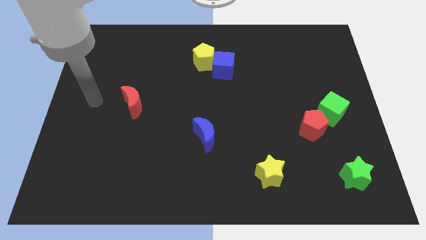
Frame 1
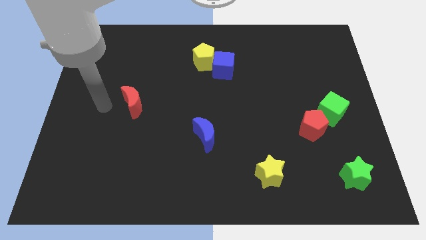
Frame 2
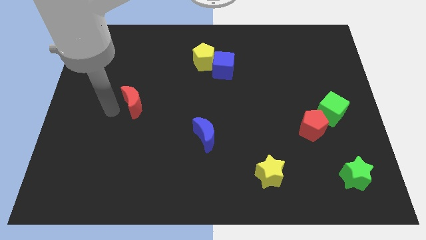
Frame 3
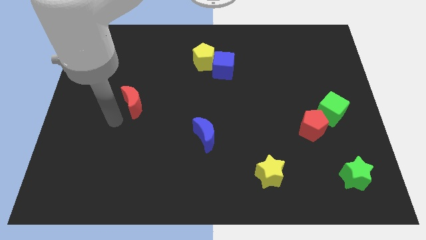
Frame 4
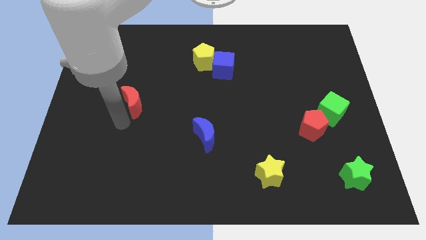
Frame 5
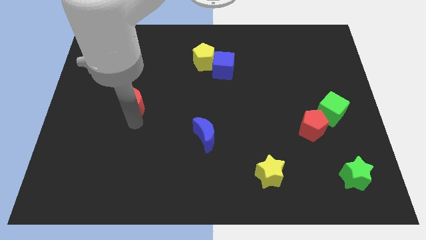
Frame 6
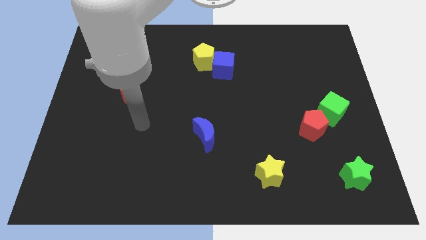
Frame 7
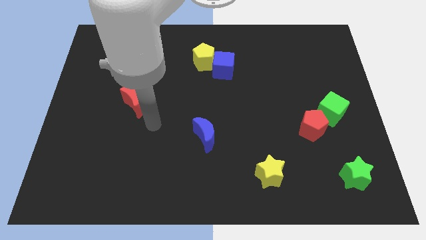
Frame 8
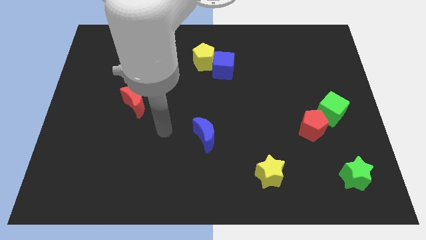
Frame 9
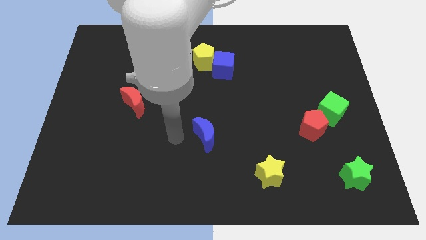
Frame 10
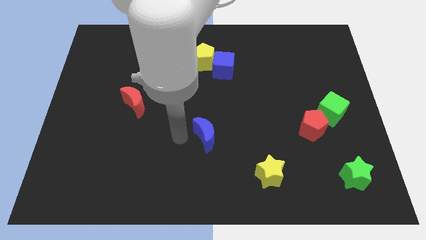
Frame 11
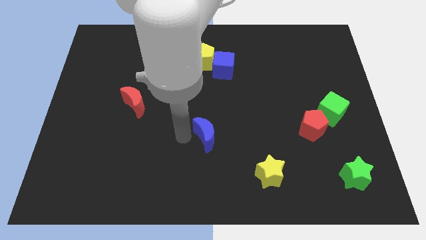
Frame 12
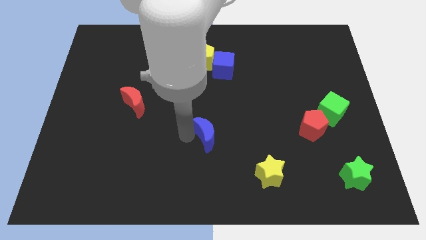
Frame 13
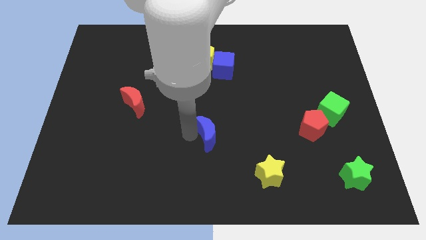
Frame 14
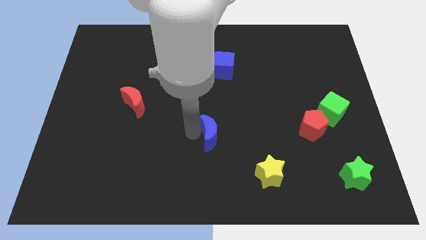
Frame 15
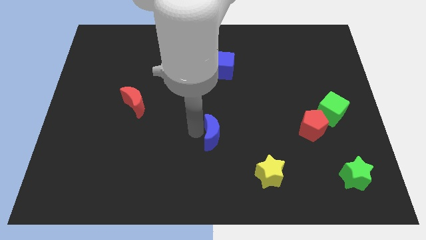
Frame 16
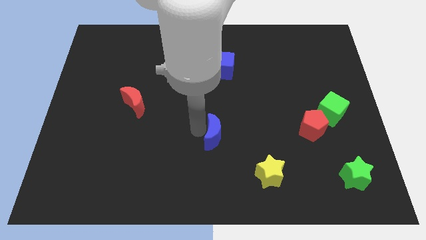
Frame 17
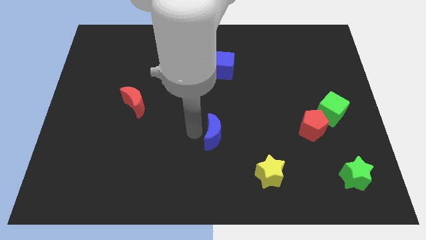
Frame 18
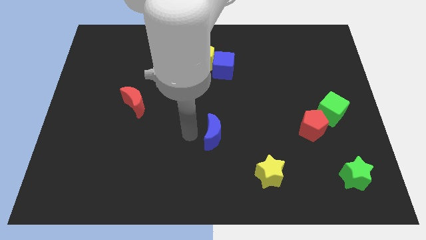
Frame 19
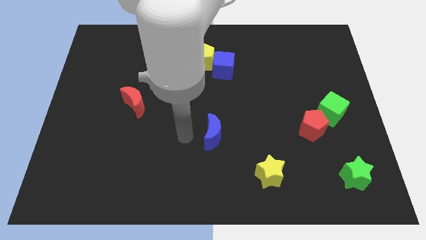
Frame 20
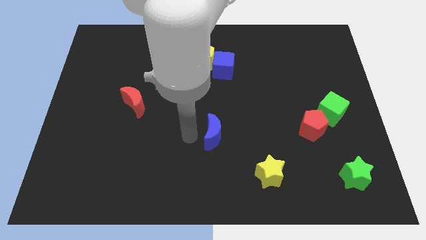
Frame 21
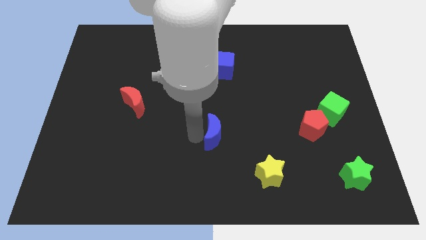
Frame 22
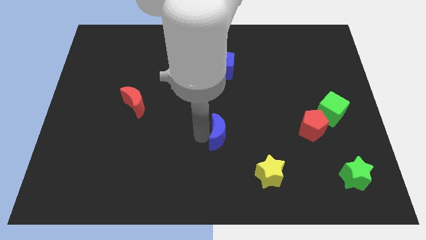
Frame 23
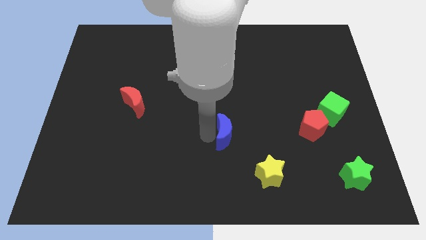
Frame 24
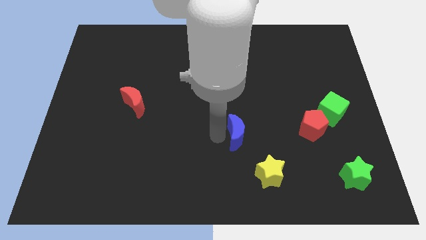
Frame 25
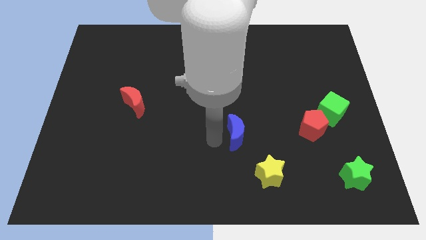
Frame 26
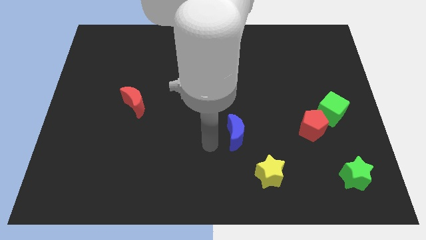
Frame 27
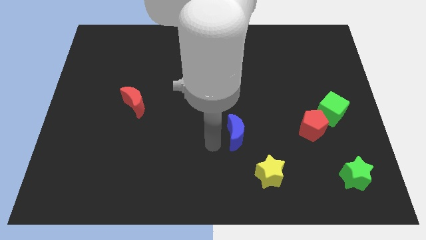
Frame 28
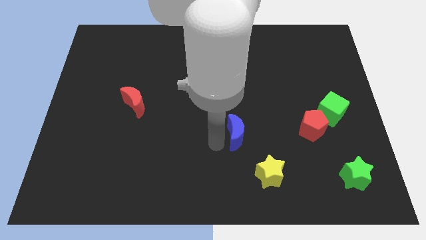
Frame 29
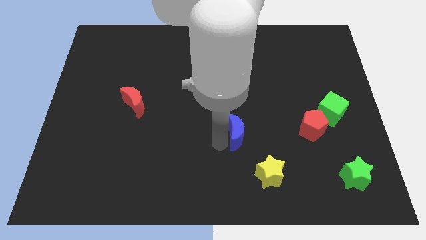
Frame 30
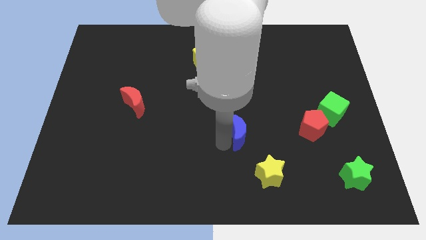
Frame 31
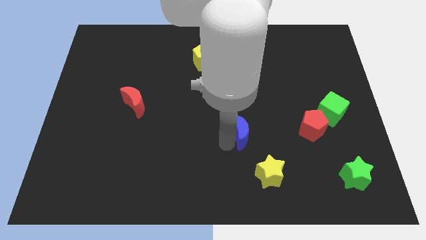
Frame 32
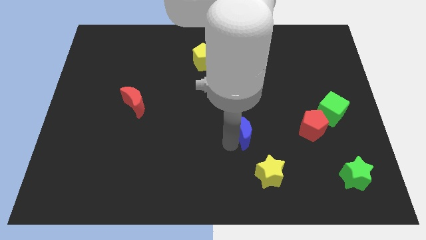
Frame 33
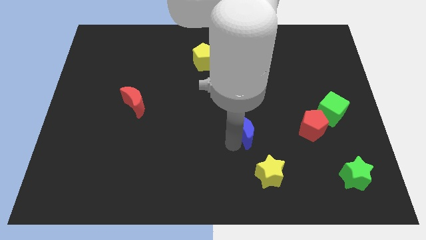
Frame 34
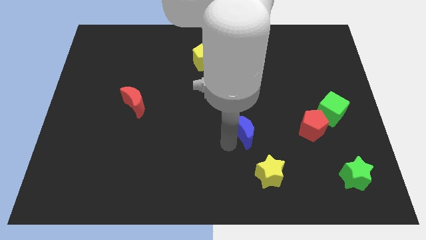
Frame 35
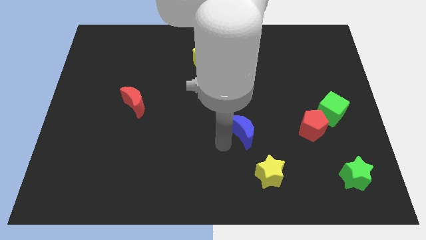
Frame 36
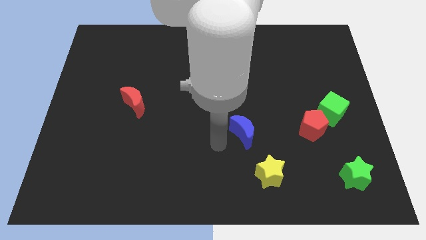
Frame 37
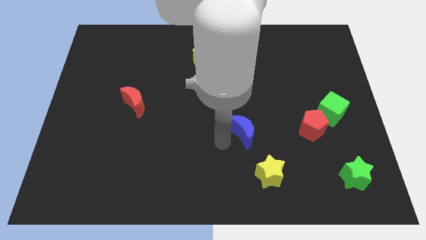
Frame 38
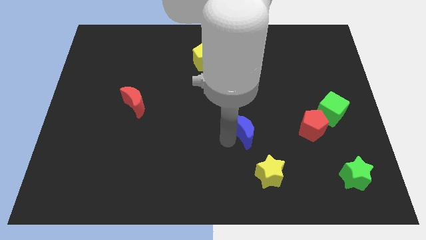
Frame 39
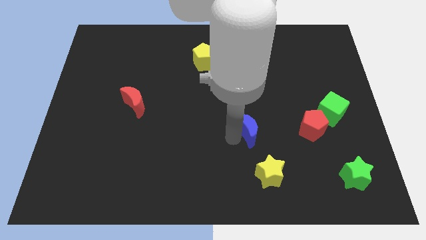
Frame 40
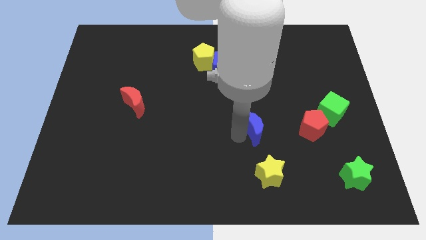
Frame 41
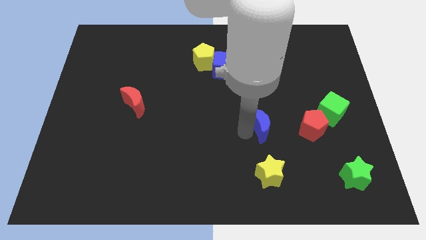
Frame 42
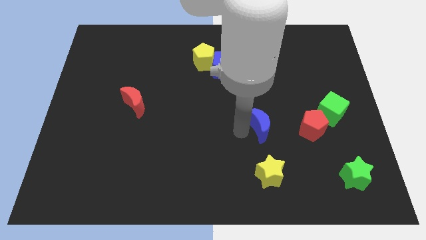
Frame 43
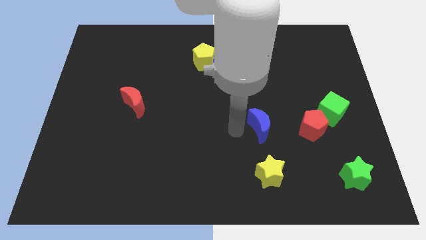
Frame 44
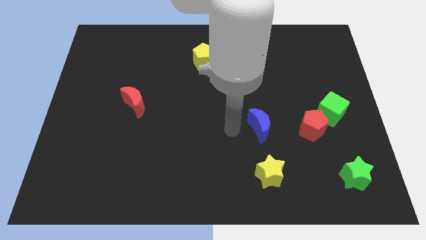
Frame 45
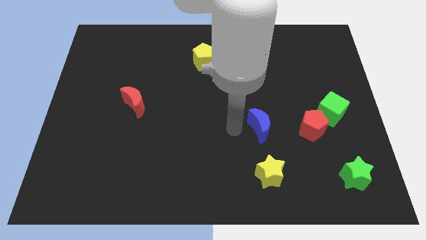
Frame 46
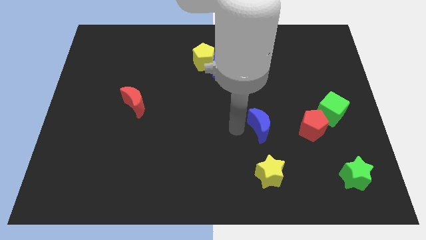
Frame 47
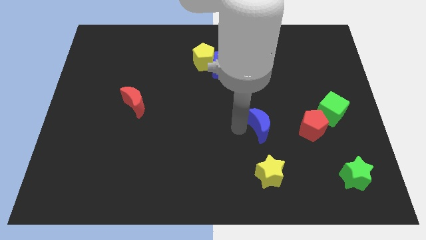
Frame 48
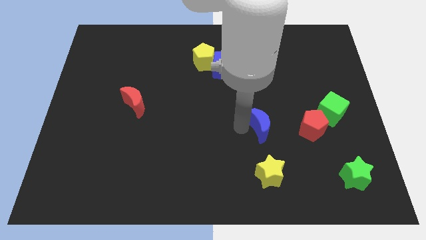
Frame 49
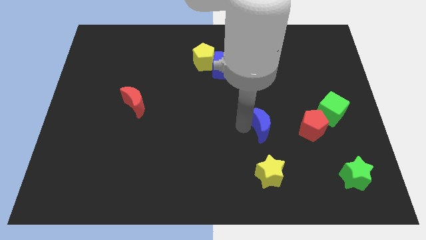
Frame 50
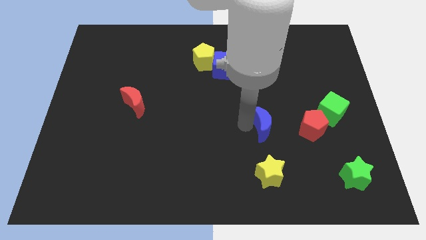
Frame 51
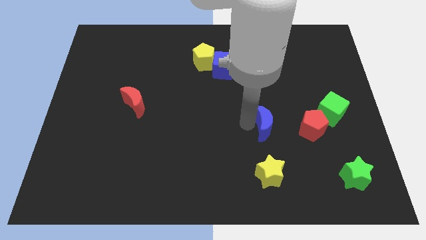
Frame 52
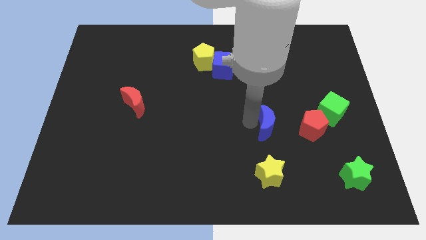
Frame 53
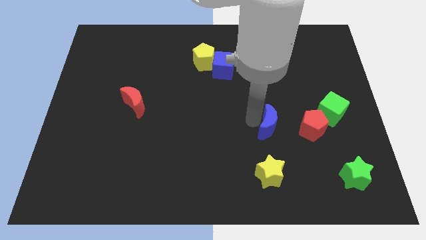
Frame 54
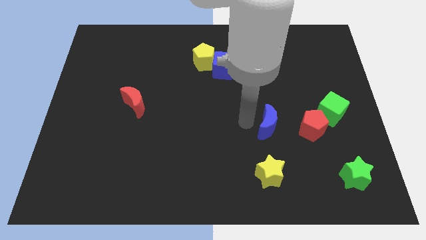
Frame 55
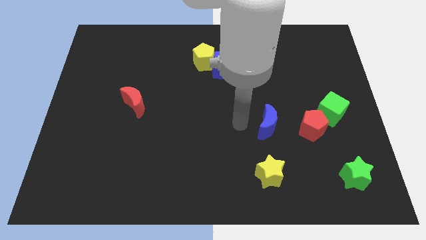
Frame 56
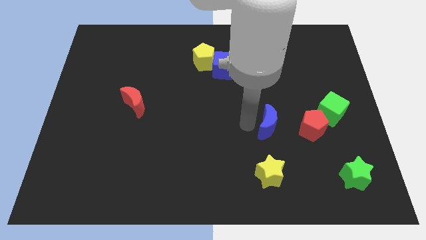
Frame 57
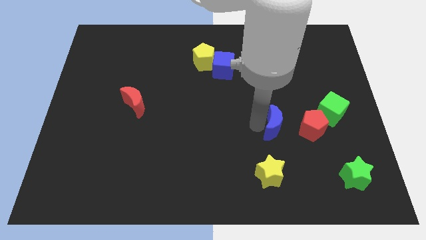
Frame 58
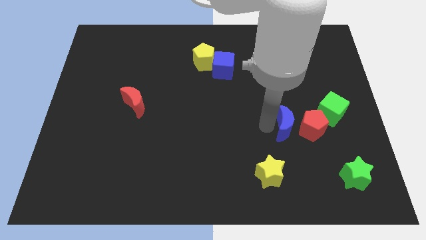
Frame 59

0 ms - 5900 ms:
slide the blue moon next to the red pentagon

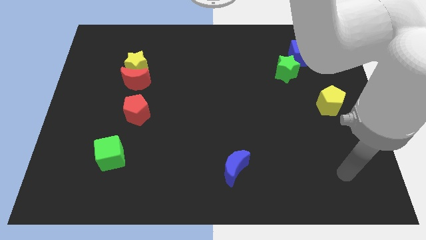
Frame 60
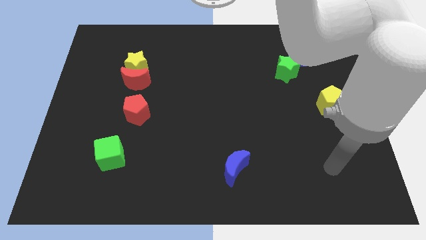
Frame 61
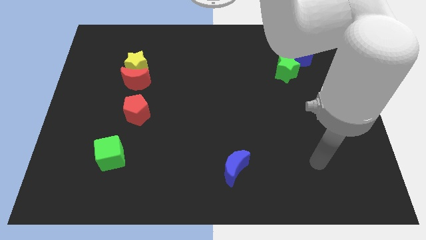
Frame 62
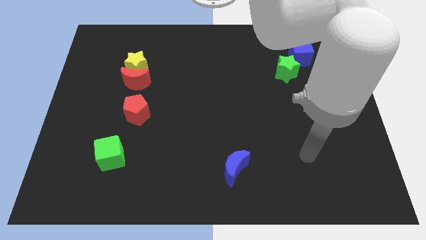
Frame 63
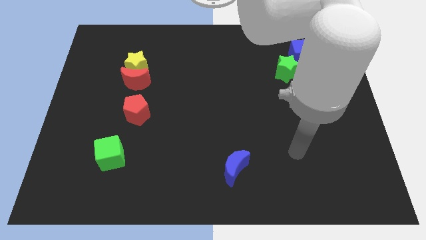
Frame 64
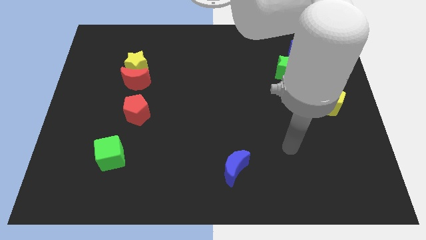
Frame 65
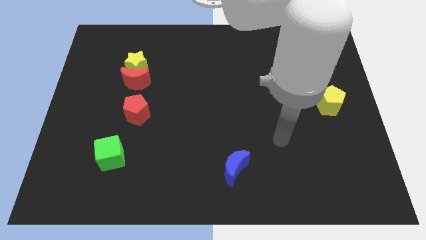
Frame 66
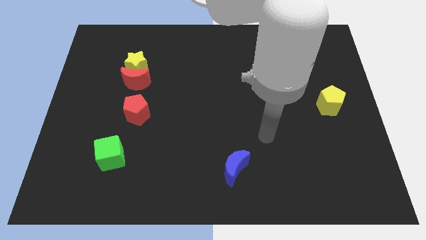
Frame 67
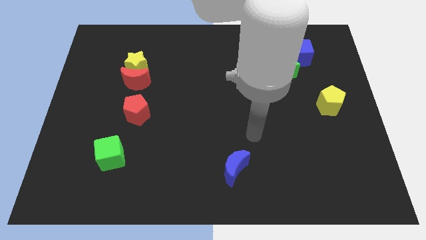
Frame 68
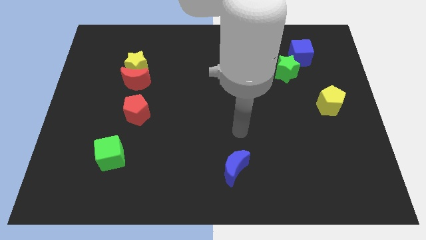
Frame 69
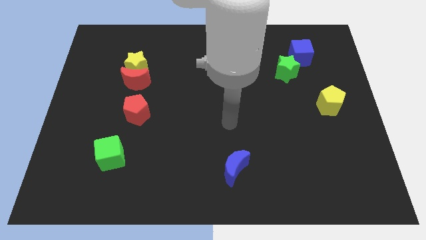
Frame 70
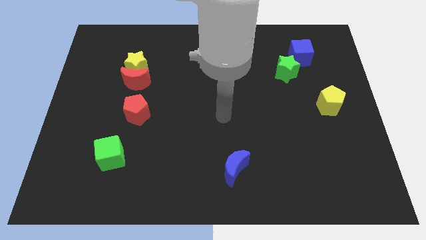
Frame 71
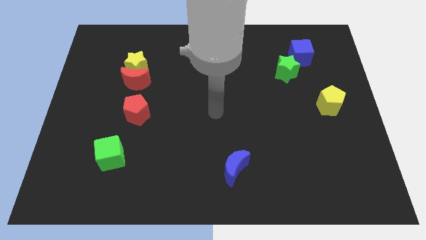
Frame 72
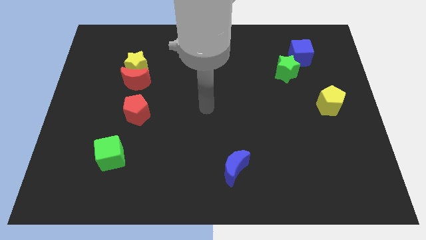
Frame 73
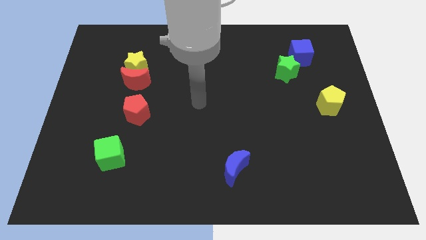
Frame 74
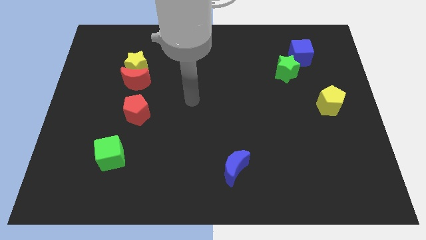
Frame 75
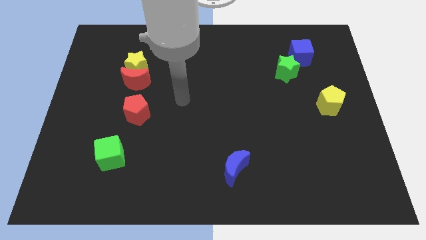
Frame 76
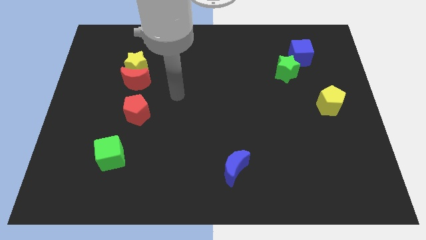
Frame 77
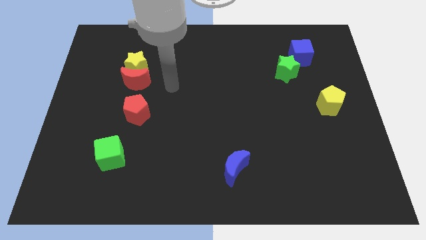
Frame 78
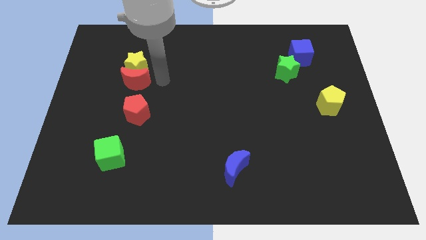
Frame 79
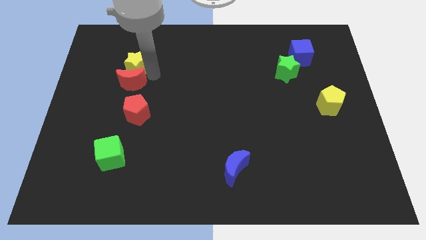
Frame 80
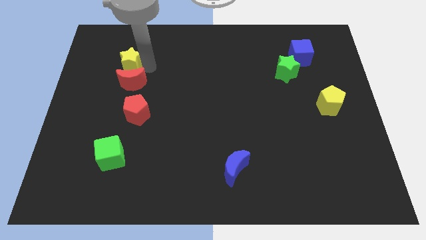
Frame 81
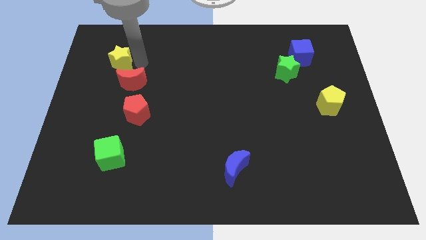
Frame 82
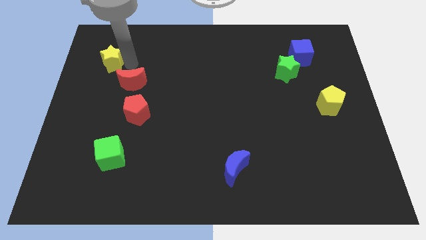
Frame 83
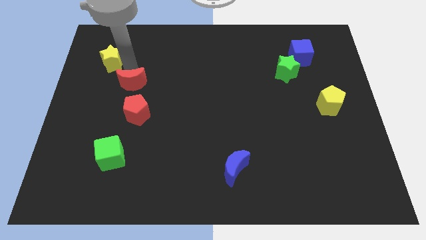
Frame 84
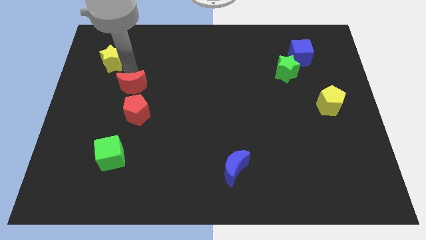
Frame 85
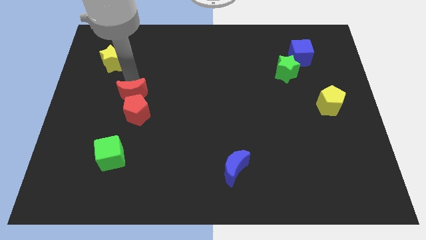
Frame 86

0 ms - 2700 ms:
slide the red moon close to the red pentagon
